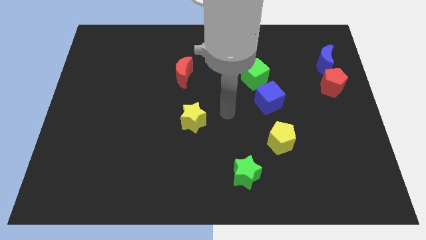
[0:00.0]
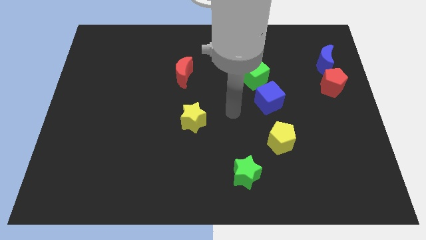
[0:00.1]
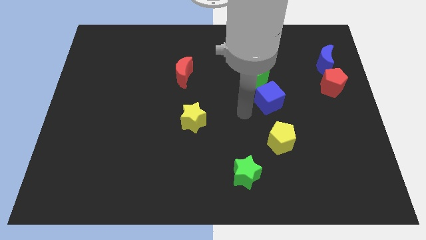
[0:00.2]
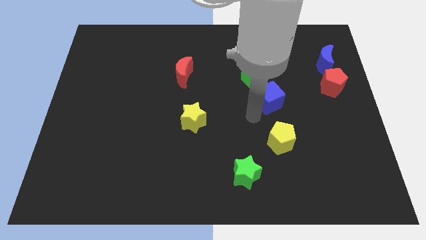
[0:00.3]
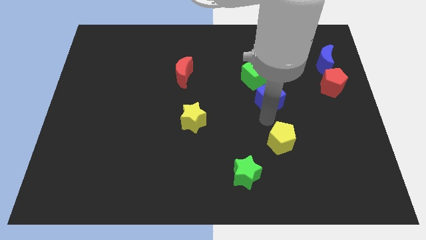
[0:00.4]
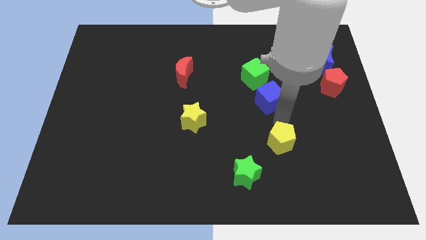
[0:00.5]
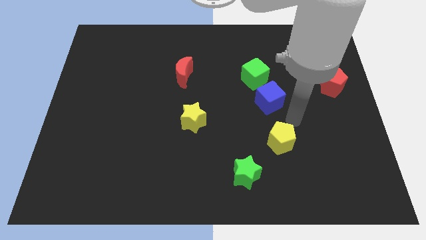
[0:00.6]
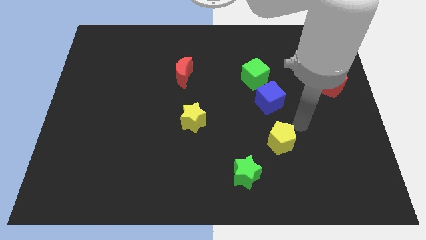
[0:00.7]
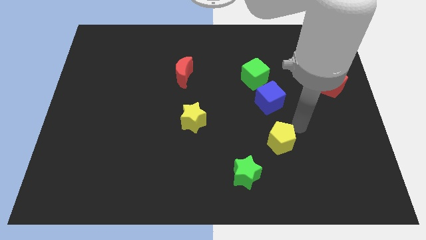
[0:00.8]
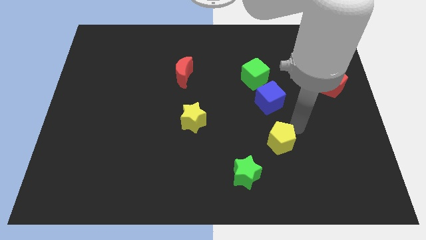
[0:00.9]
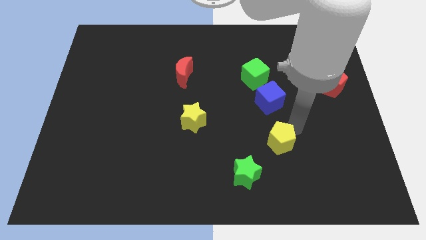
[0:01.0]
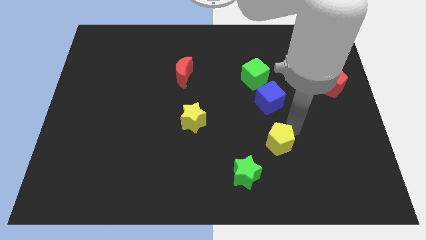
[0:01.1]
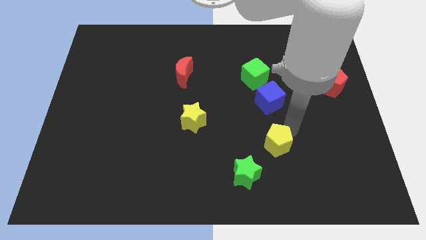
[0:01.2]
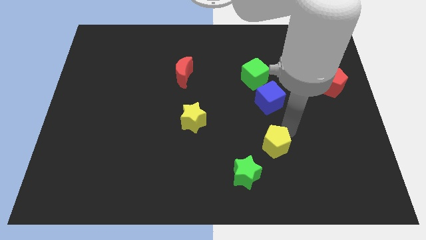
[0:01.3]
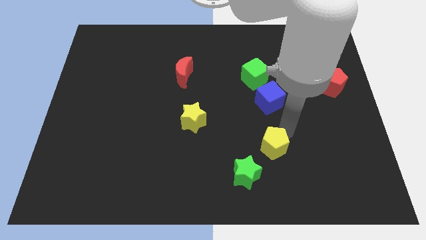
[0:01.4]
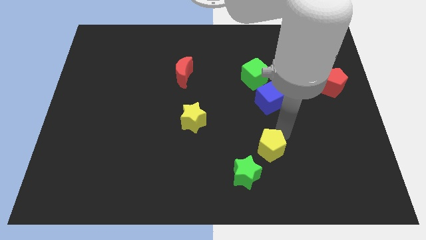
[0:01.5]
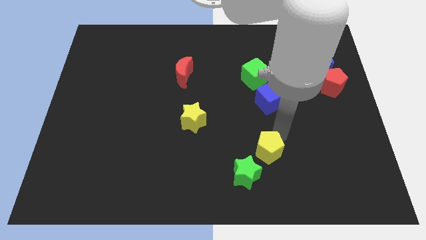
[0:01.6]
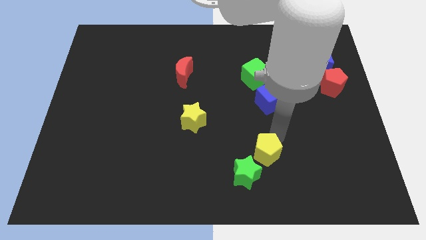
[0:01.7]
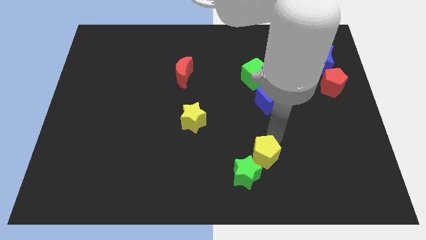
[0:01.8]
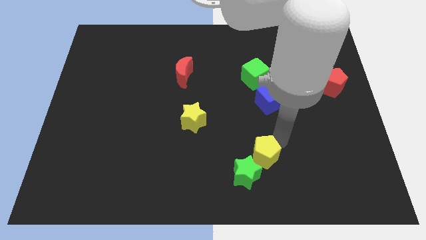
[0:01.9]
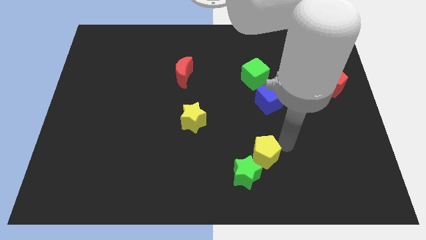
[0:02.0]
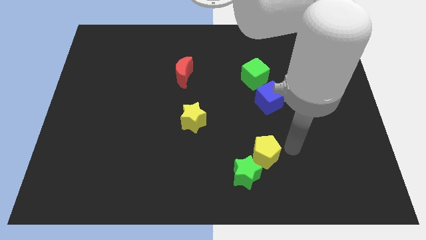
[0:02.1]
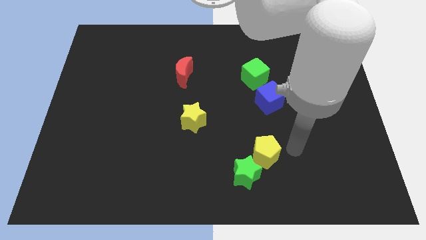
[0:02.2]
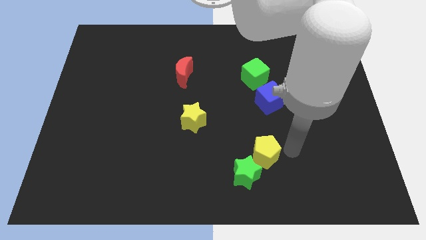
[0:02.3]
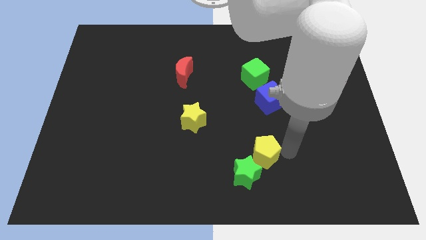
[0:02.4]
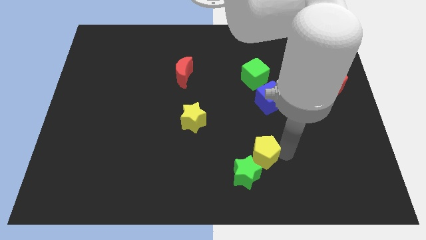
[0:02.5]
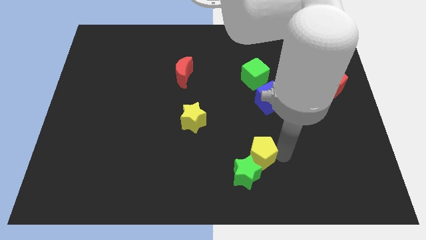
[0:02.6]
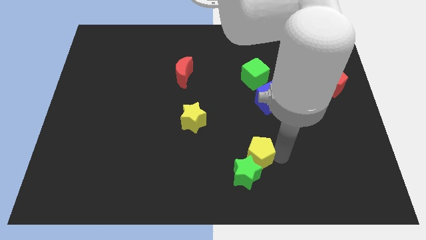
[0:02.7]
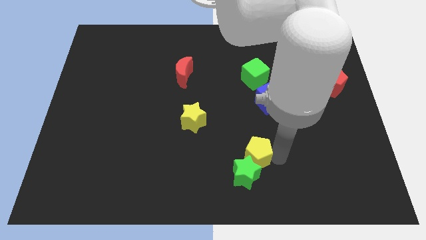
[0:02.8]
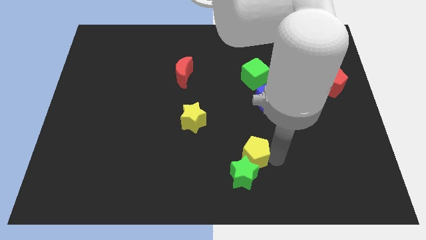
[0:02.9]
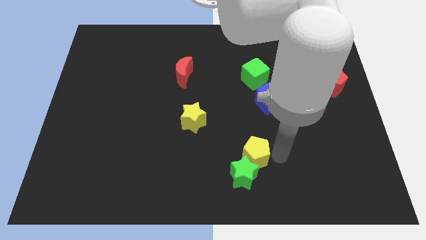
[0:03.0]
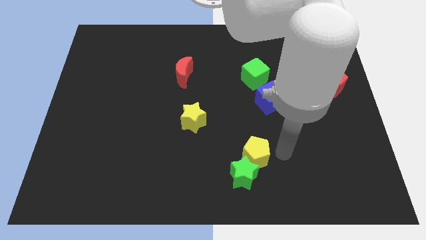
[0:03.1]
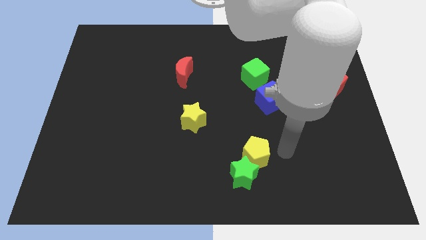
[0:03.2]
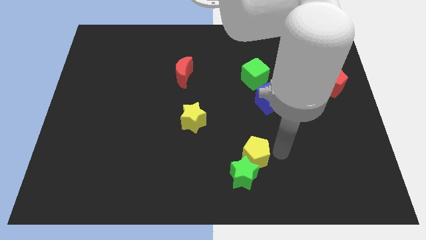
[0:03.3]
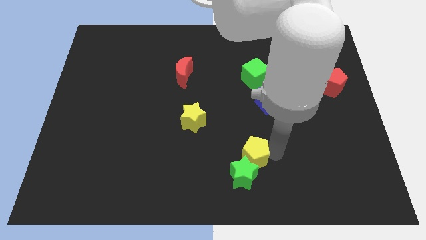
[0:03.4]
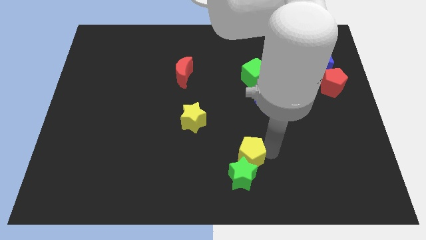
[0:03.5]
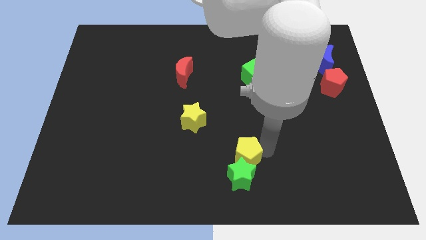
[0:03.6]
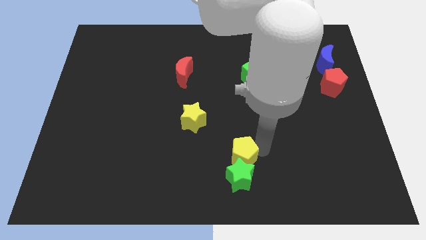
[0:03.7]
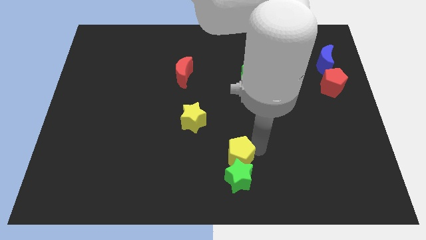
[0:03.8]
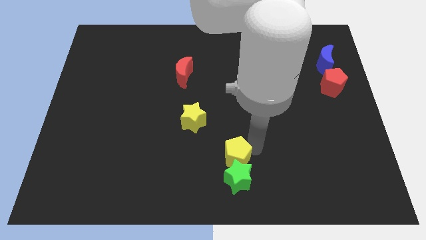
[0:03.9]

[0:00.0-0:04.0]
push the yellow pentagon to the bottom

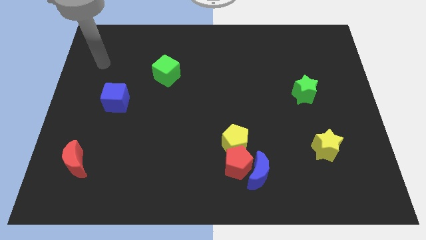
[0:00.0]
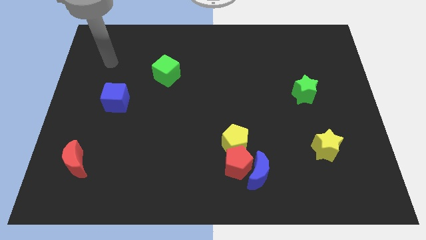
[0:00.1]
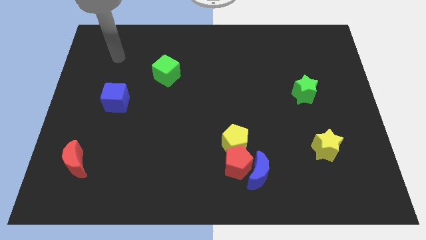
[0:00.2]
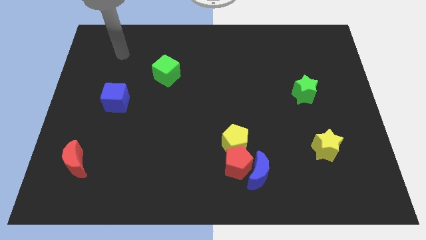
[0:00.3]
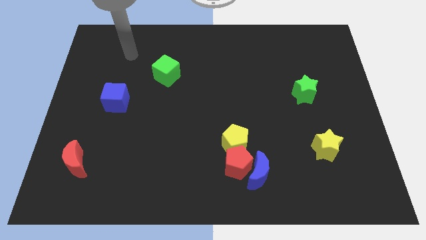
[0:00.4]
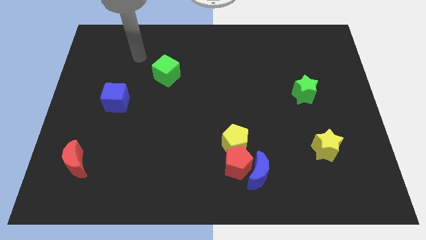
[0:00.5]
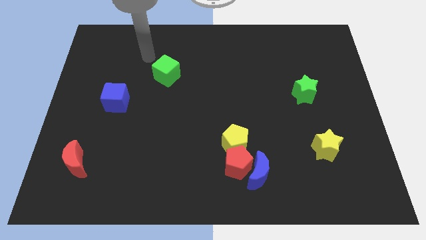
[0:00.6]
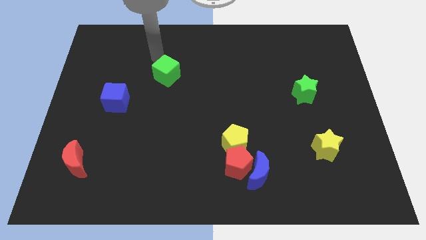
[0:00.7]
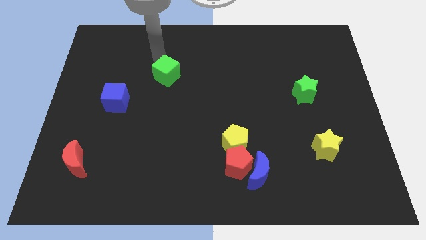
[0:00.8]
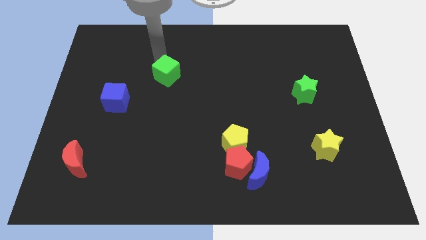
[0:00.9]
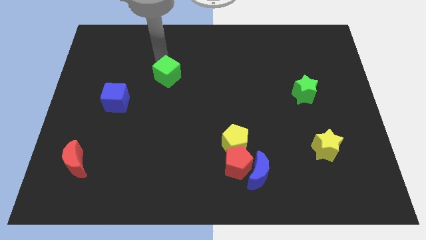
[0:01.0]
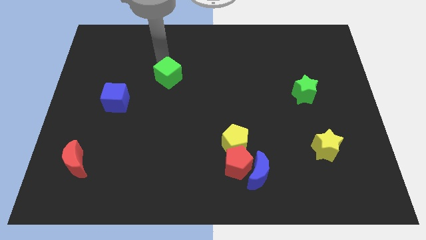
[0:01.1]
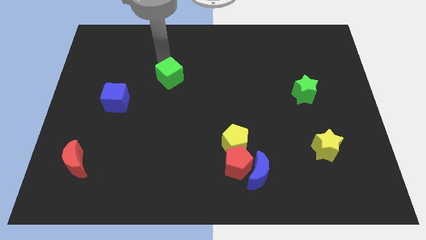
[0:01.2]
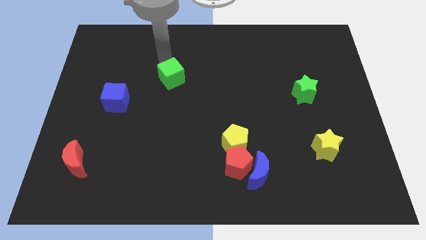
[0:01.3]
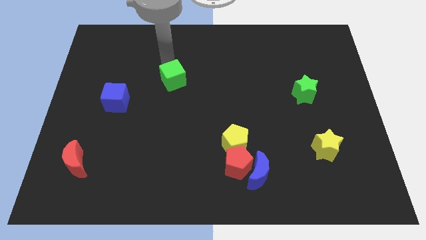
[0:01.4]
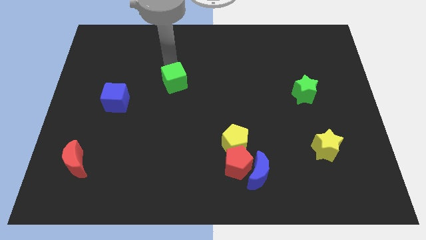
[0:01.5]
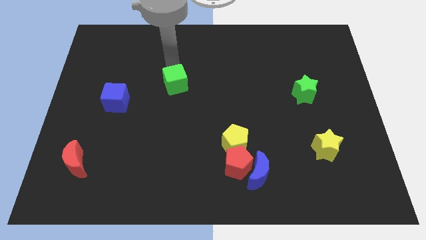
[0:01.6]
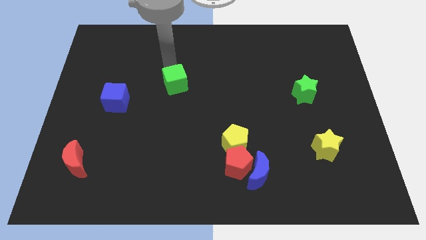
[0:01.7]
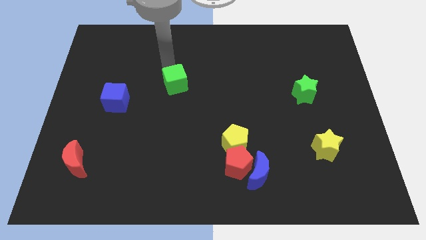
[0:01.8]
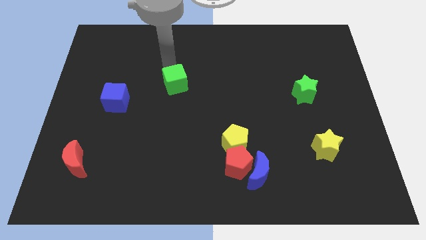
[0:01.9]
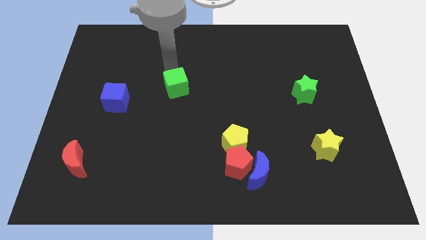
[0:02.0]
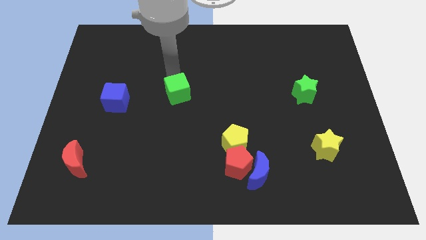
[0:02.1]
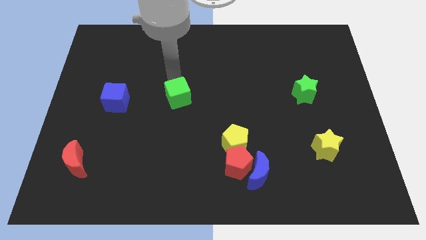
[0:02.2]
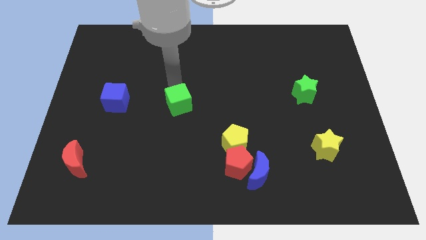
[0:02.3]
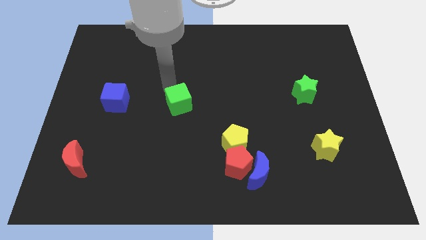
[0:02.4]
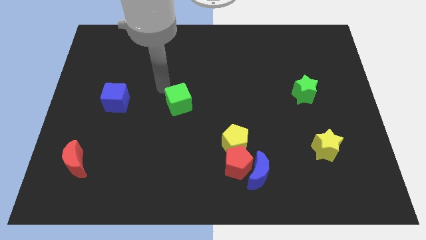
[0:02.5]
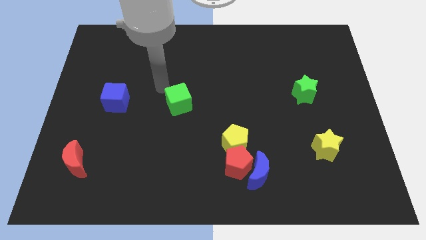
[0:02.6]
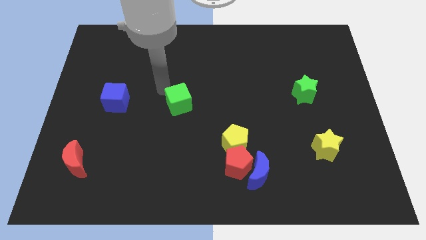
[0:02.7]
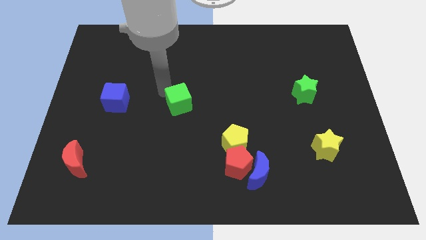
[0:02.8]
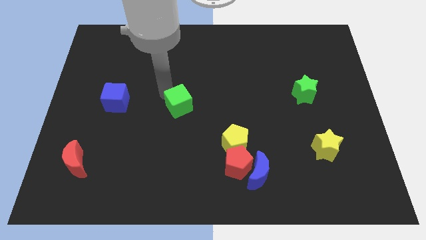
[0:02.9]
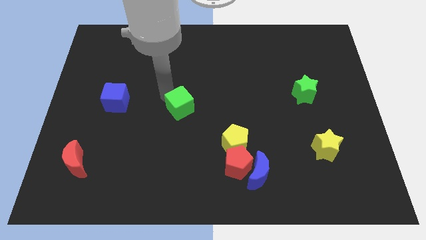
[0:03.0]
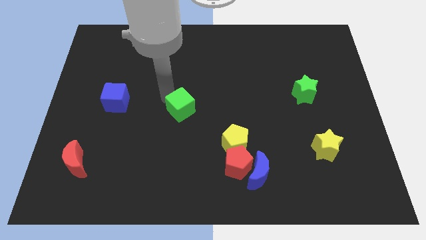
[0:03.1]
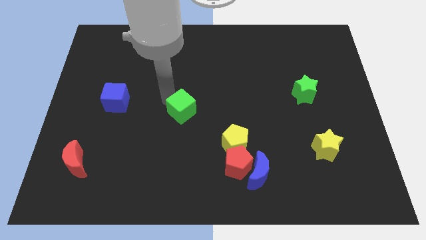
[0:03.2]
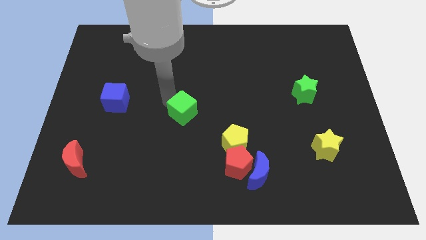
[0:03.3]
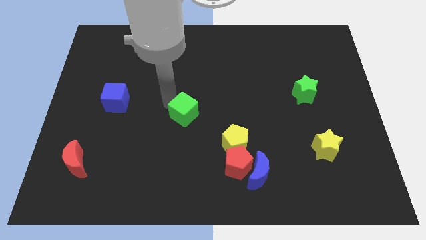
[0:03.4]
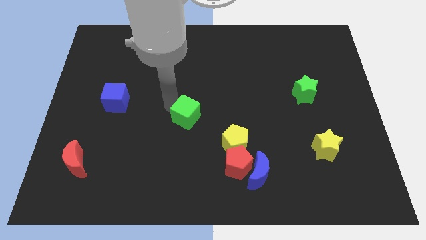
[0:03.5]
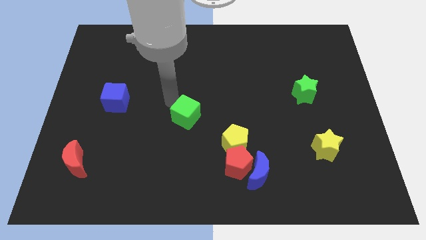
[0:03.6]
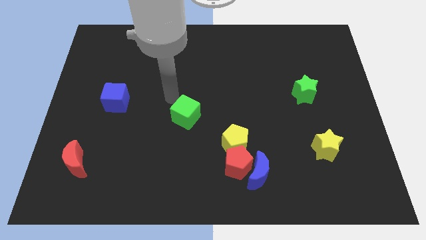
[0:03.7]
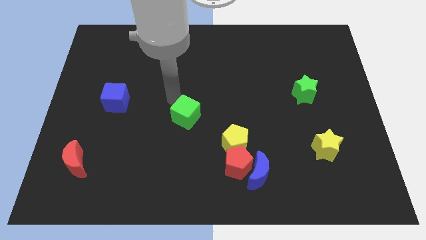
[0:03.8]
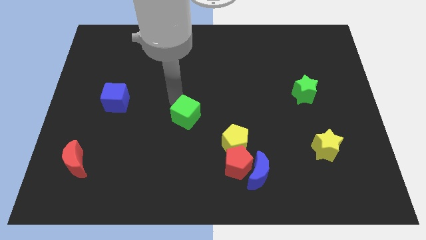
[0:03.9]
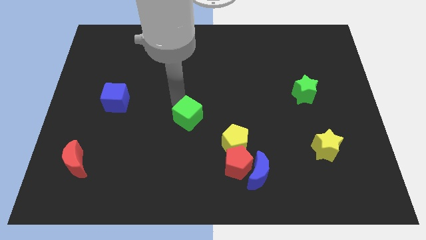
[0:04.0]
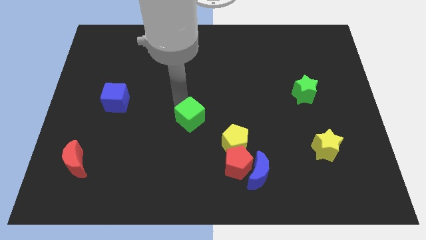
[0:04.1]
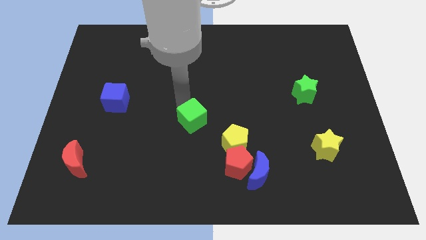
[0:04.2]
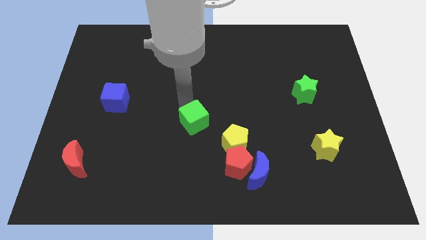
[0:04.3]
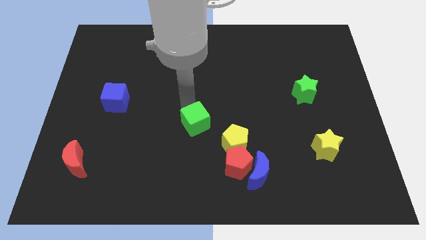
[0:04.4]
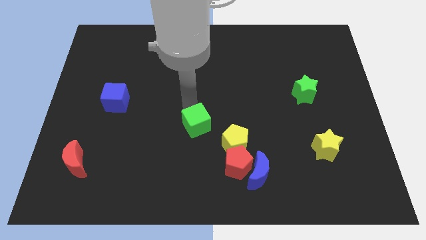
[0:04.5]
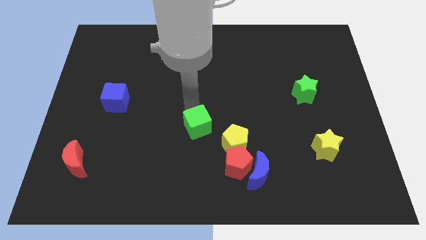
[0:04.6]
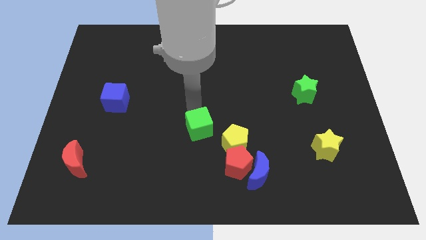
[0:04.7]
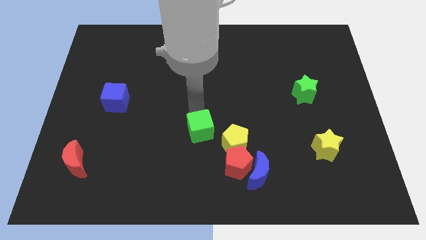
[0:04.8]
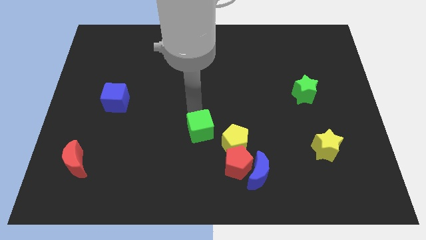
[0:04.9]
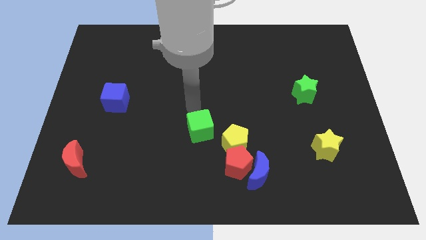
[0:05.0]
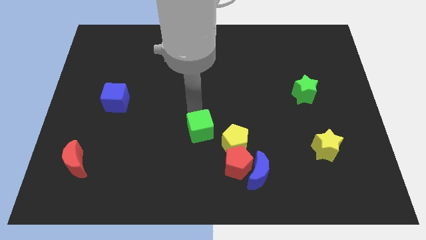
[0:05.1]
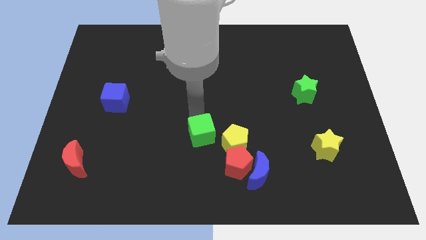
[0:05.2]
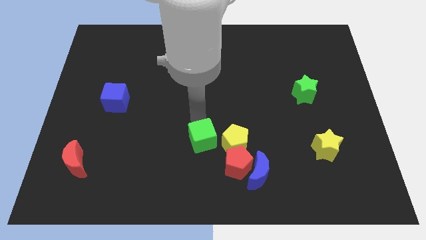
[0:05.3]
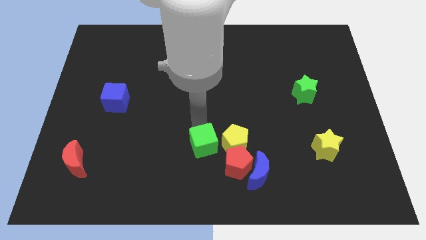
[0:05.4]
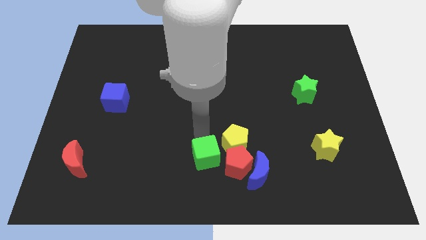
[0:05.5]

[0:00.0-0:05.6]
push the green cube to the bottom
